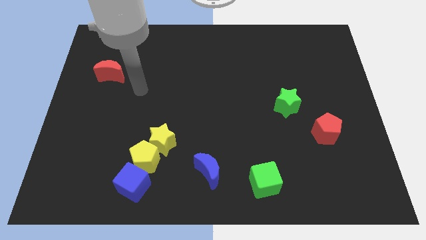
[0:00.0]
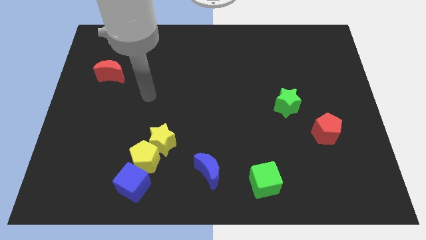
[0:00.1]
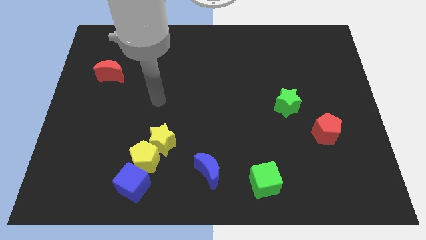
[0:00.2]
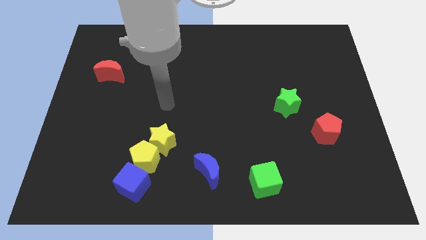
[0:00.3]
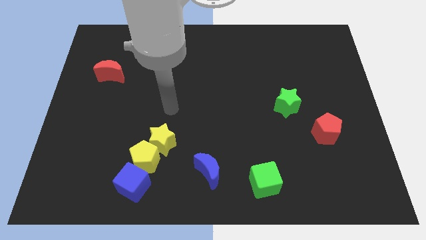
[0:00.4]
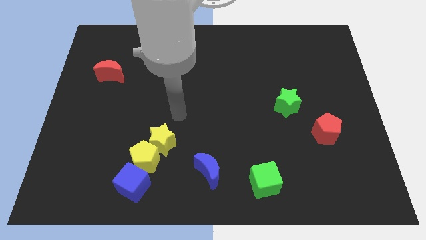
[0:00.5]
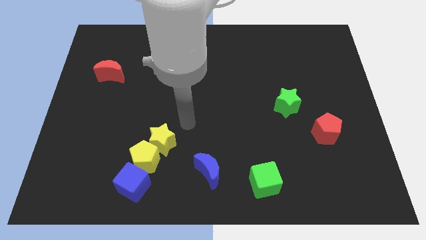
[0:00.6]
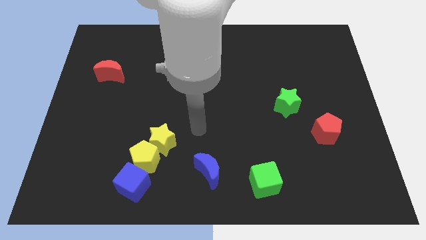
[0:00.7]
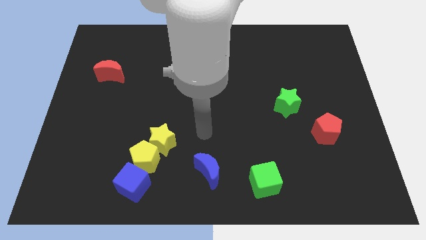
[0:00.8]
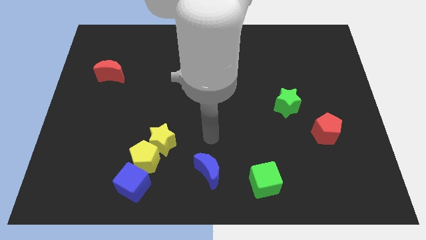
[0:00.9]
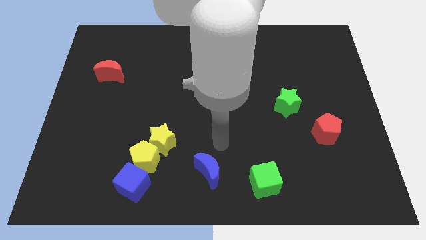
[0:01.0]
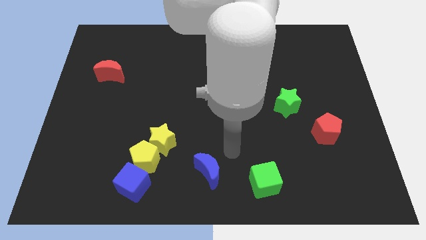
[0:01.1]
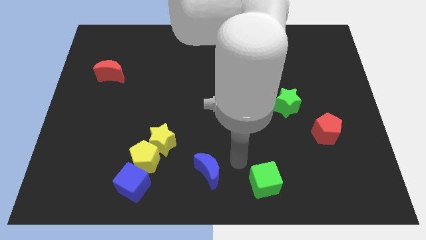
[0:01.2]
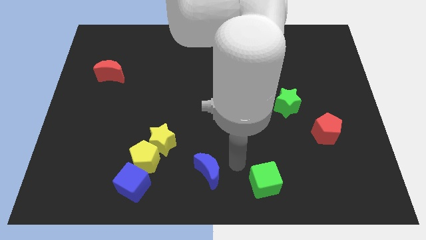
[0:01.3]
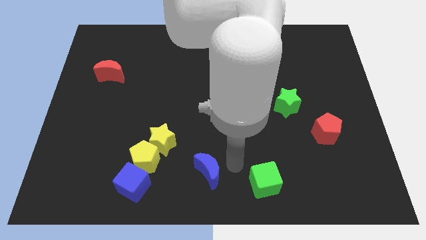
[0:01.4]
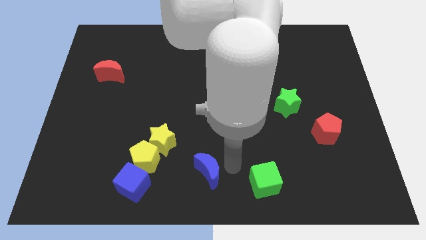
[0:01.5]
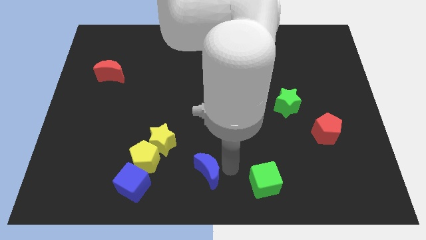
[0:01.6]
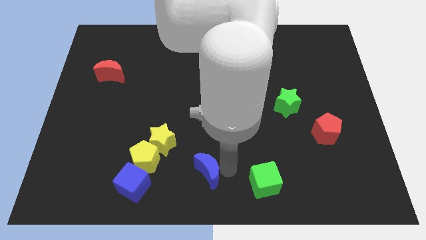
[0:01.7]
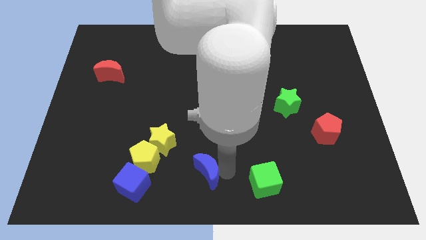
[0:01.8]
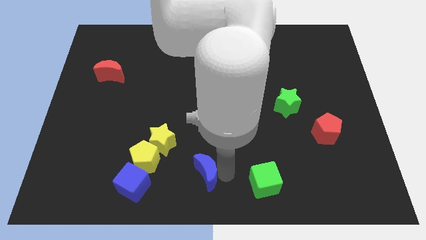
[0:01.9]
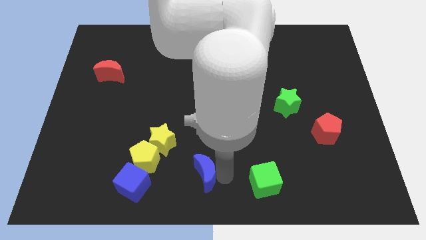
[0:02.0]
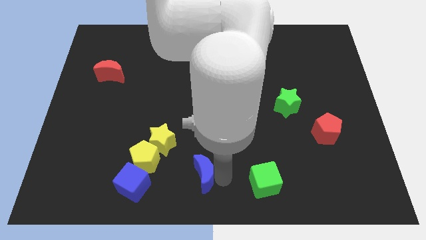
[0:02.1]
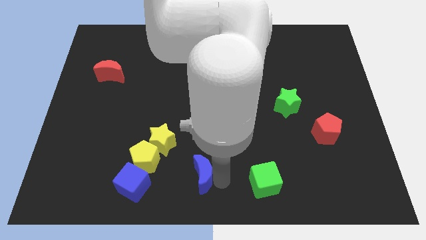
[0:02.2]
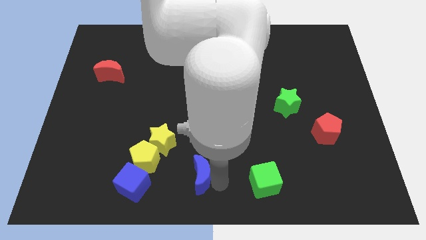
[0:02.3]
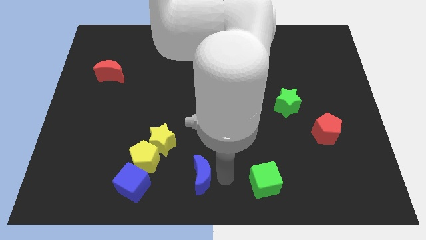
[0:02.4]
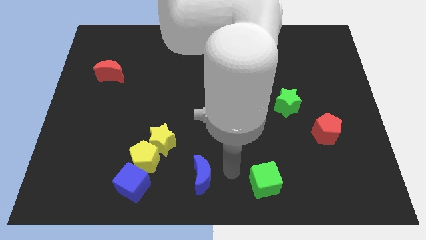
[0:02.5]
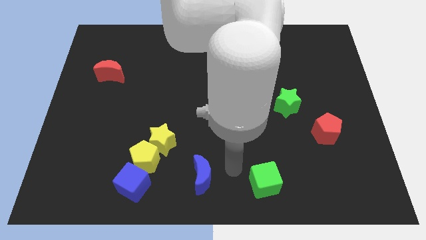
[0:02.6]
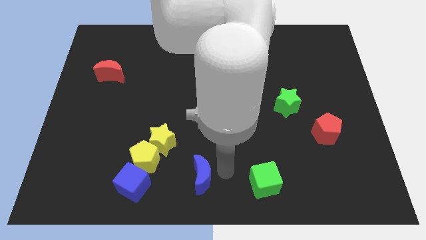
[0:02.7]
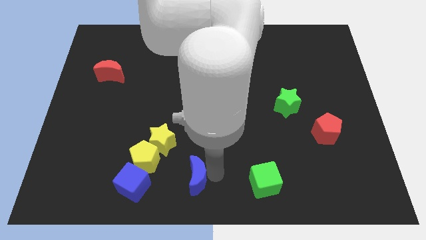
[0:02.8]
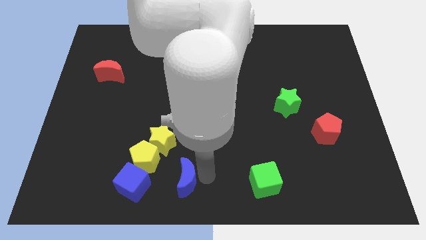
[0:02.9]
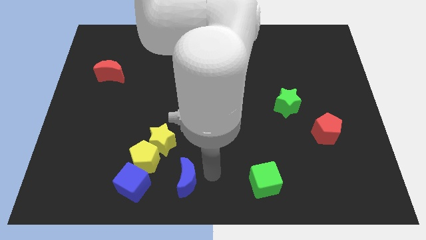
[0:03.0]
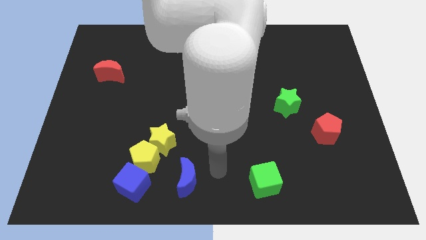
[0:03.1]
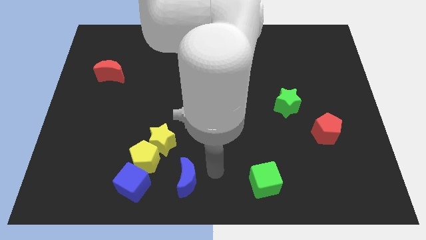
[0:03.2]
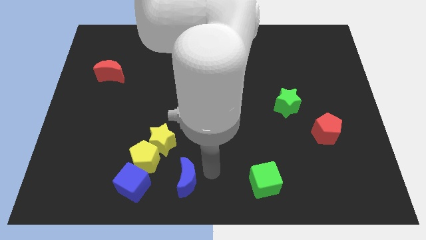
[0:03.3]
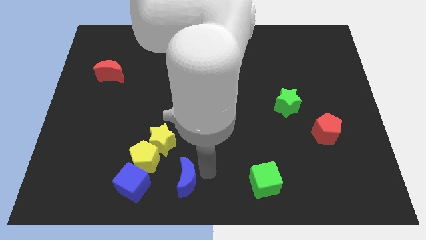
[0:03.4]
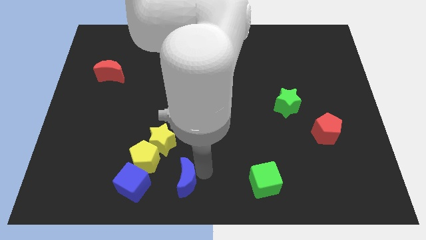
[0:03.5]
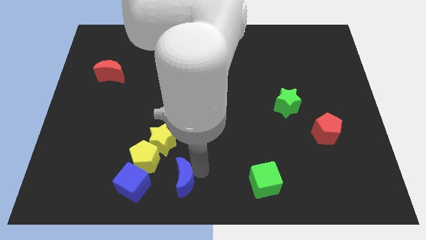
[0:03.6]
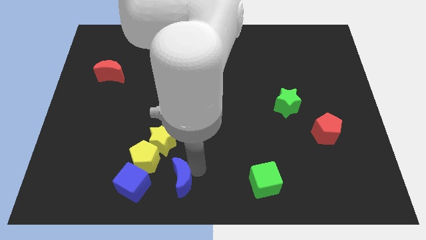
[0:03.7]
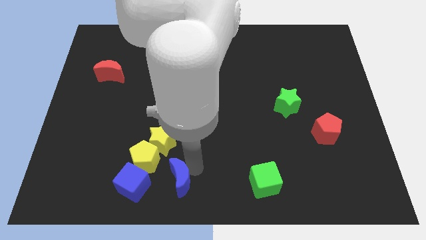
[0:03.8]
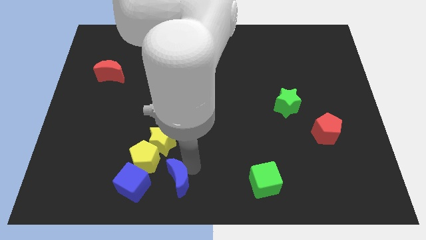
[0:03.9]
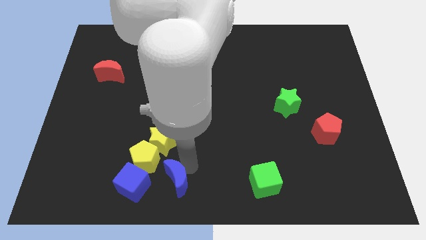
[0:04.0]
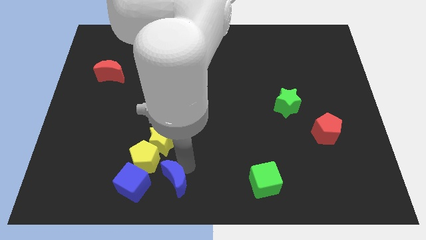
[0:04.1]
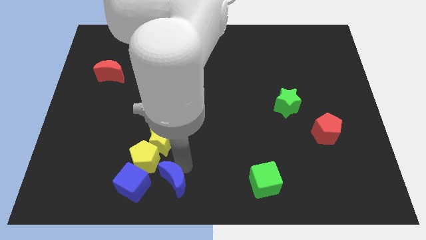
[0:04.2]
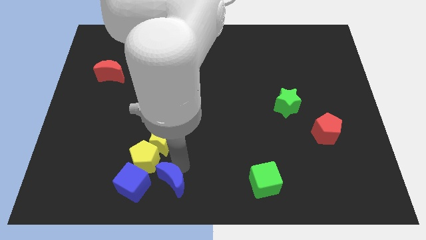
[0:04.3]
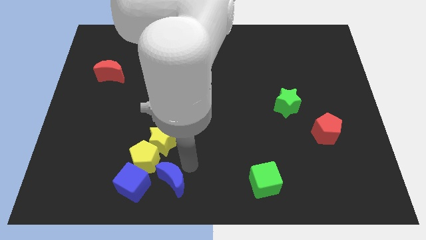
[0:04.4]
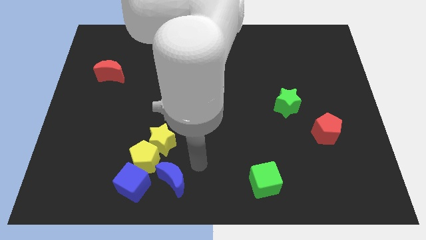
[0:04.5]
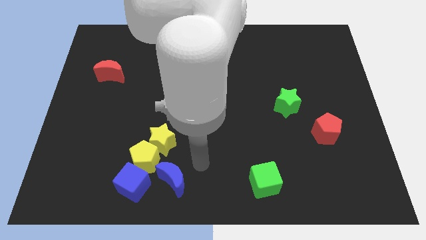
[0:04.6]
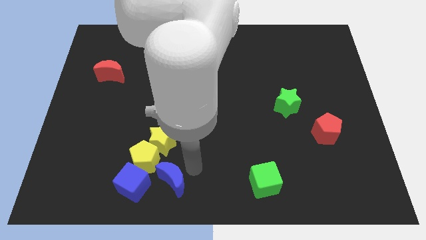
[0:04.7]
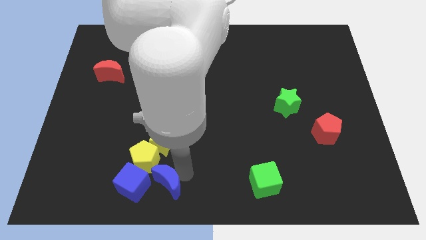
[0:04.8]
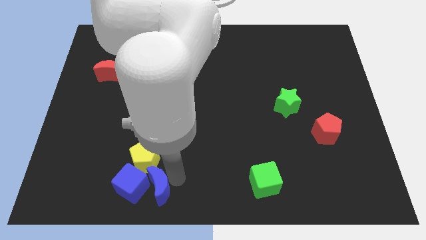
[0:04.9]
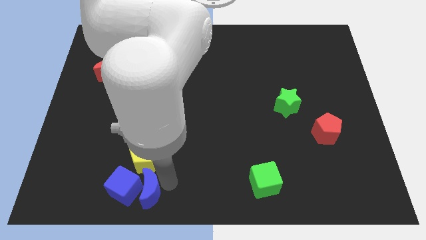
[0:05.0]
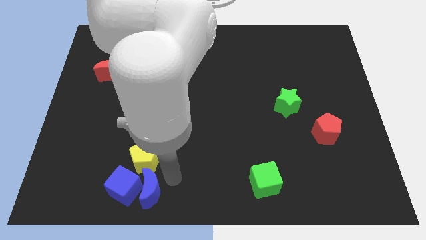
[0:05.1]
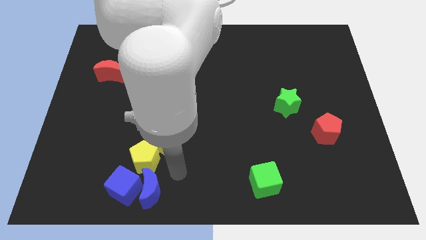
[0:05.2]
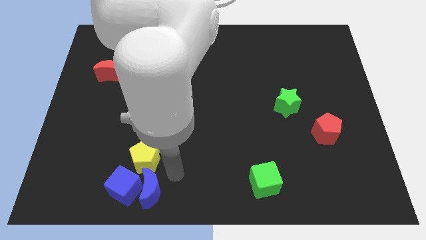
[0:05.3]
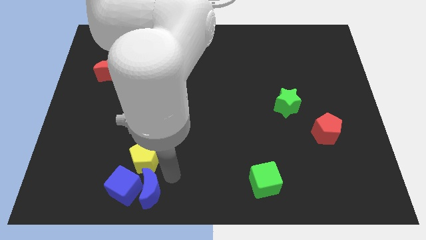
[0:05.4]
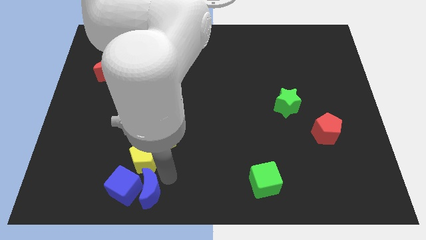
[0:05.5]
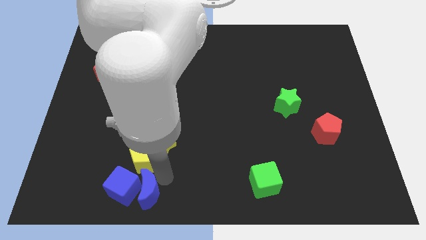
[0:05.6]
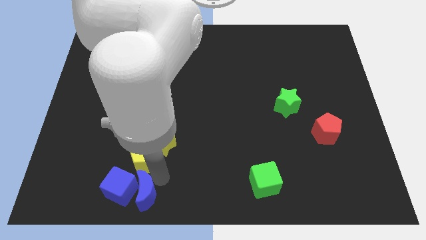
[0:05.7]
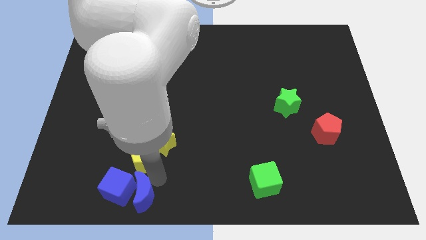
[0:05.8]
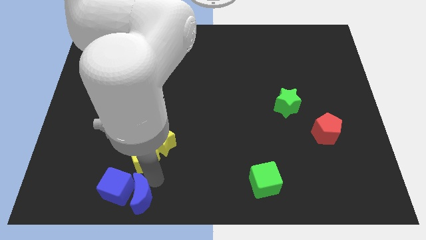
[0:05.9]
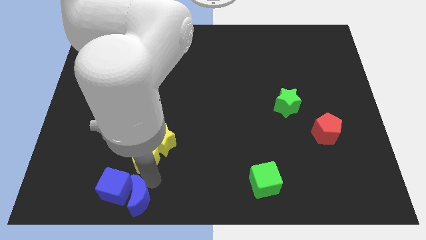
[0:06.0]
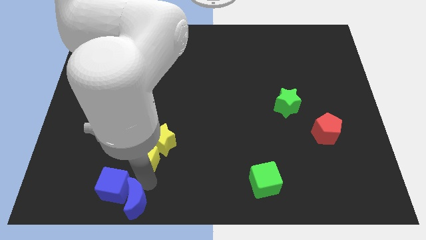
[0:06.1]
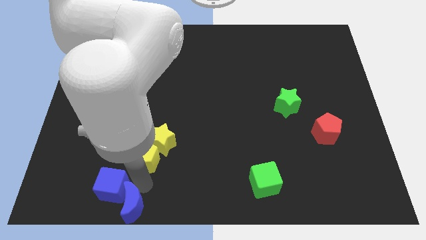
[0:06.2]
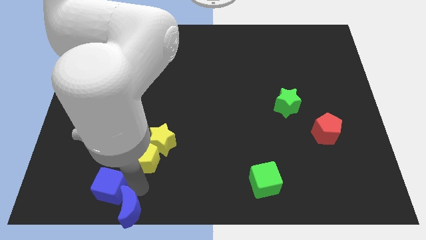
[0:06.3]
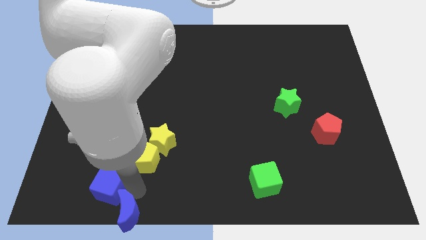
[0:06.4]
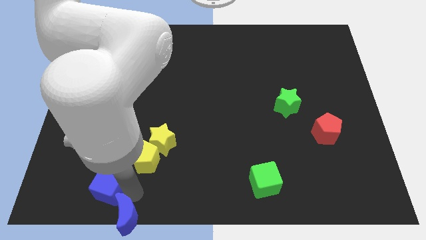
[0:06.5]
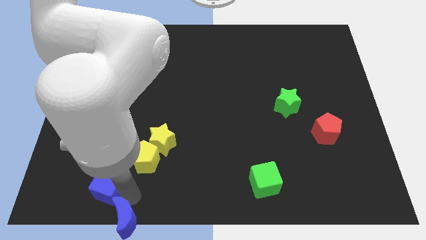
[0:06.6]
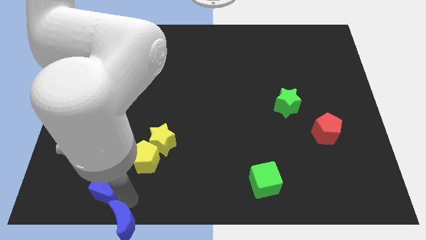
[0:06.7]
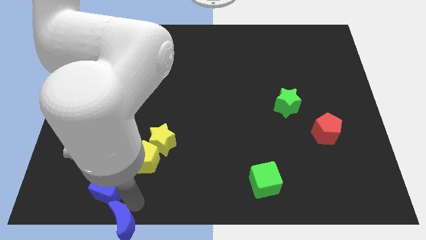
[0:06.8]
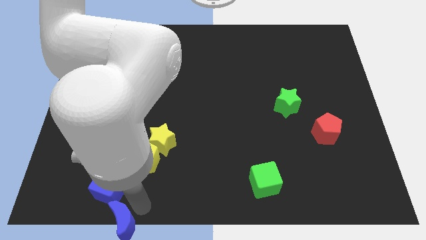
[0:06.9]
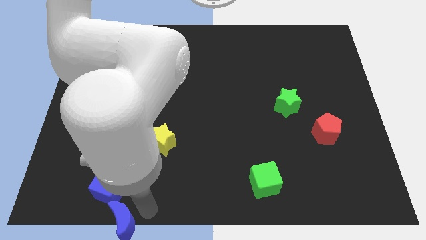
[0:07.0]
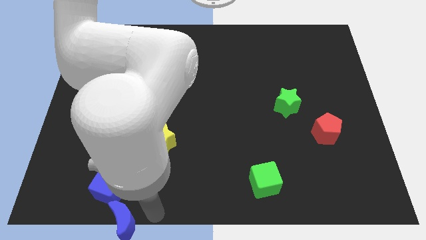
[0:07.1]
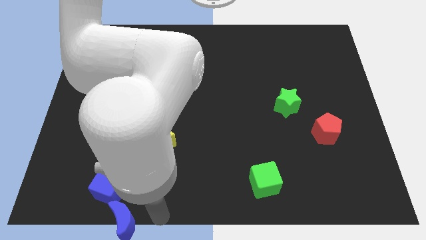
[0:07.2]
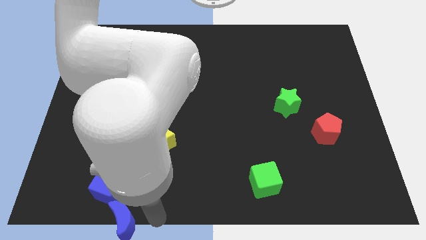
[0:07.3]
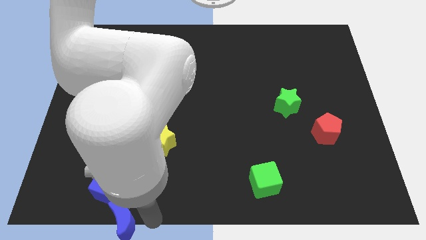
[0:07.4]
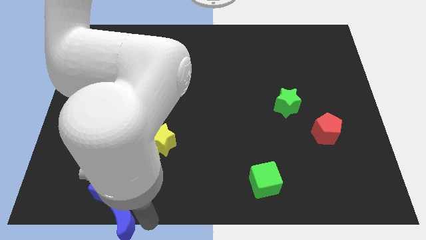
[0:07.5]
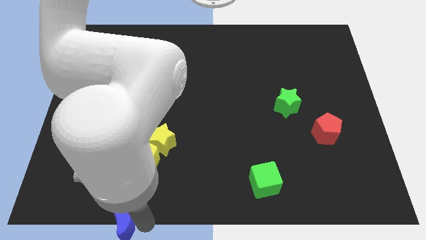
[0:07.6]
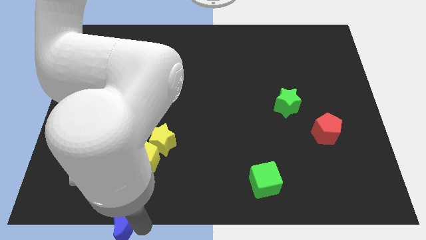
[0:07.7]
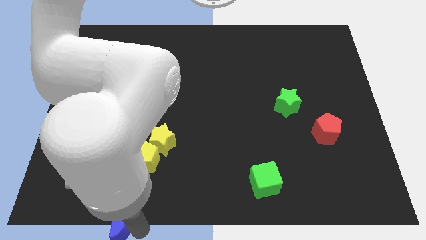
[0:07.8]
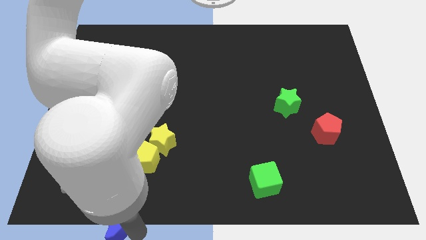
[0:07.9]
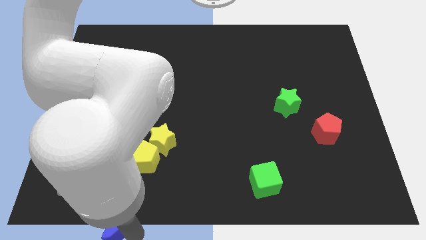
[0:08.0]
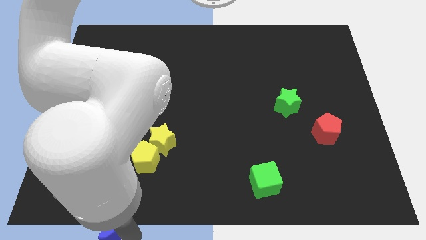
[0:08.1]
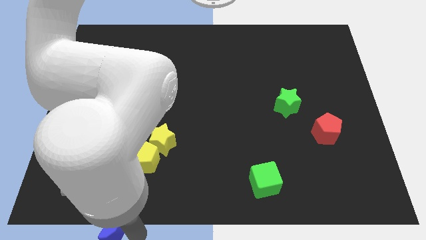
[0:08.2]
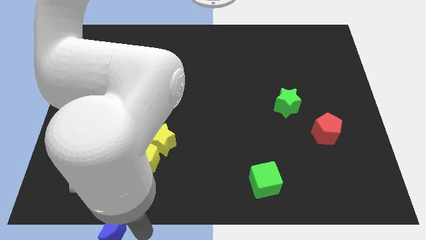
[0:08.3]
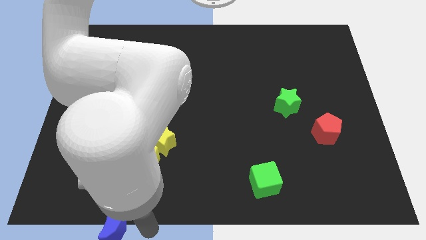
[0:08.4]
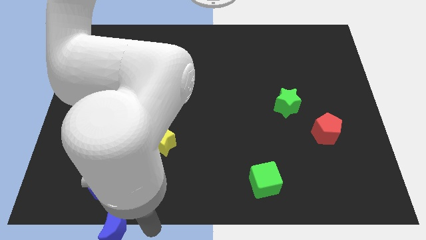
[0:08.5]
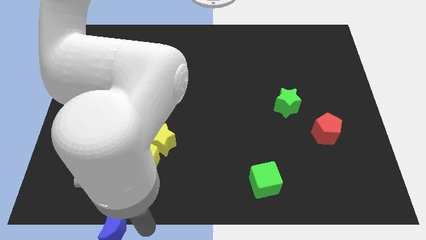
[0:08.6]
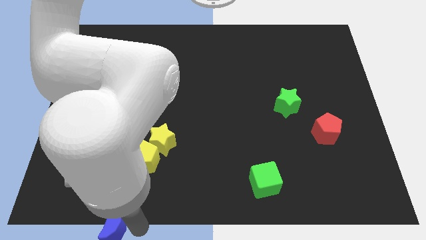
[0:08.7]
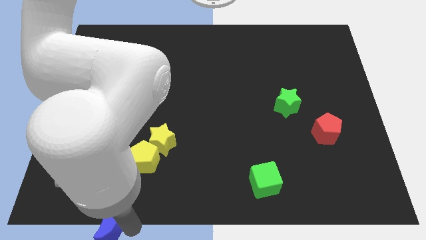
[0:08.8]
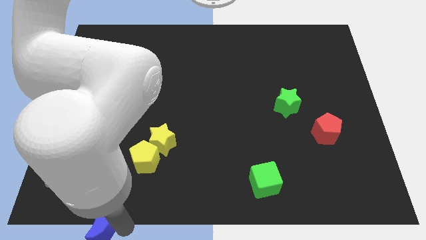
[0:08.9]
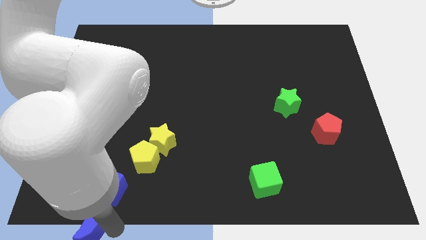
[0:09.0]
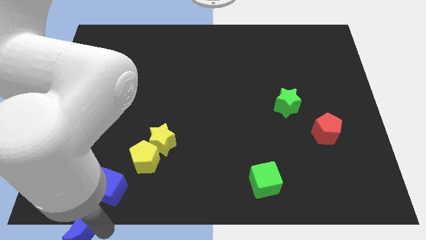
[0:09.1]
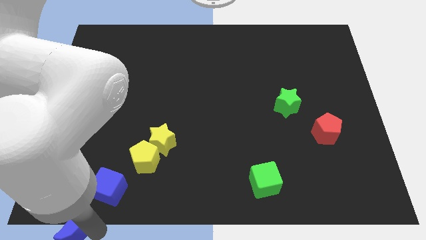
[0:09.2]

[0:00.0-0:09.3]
slide the blue moon to the bottom left corner
